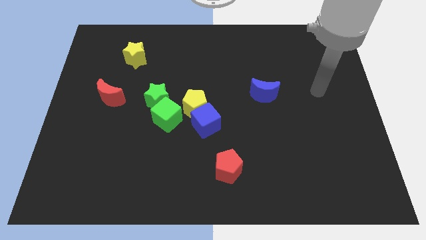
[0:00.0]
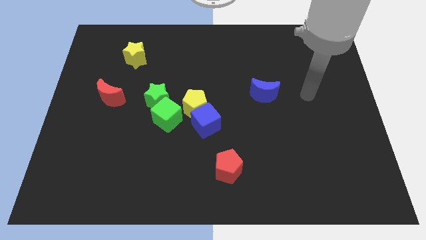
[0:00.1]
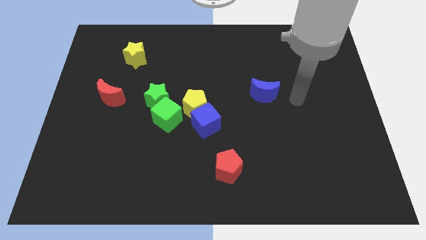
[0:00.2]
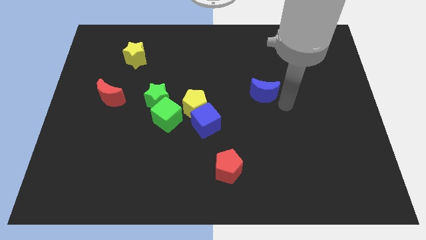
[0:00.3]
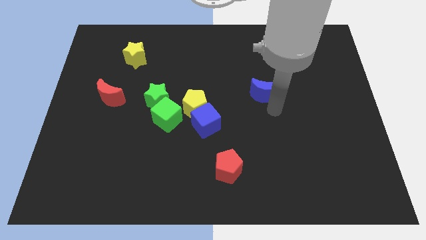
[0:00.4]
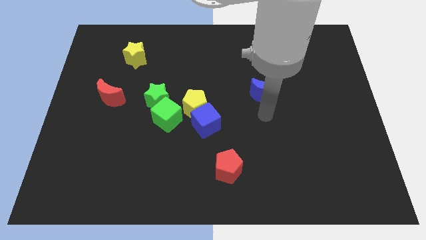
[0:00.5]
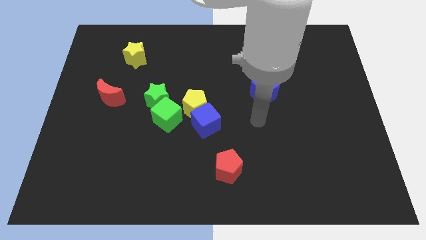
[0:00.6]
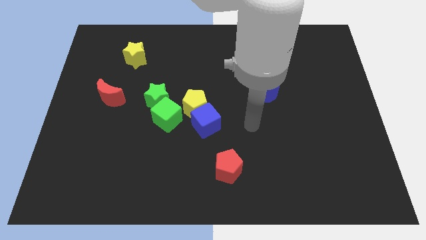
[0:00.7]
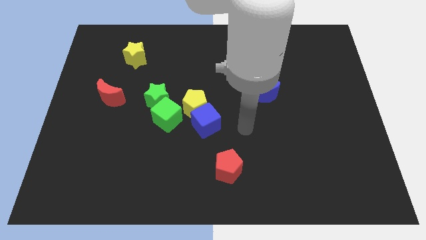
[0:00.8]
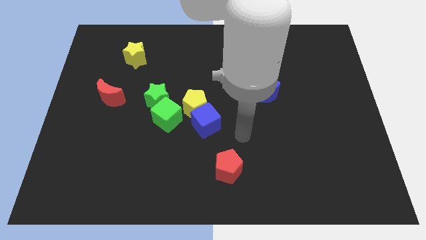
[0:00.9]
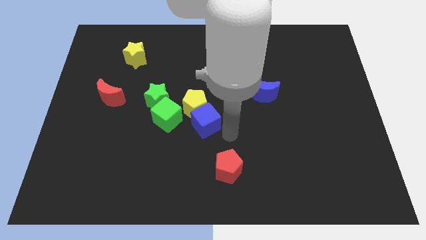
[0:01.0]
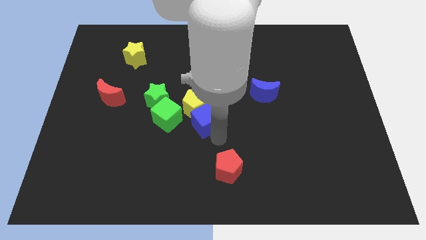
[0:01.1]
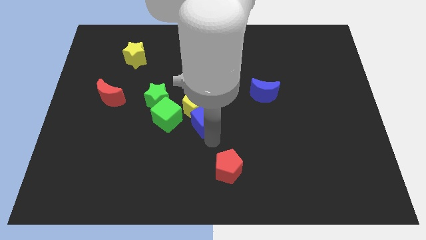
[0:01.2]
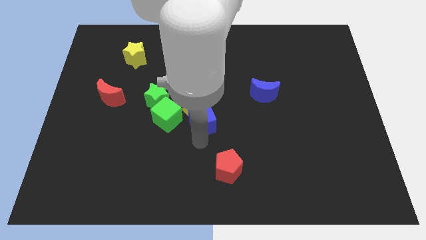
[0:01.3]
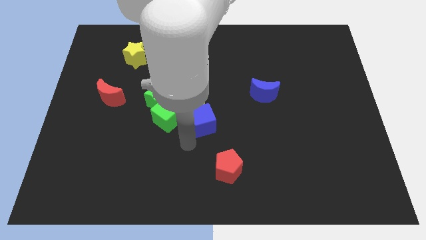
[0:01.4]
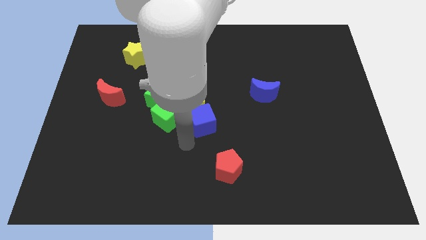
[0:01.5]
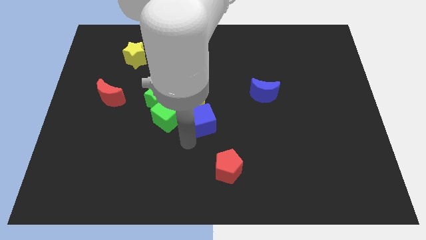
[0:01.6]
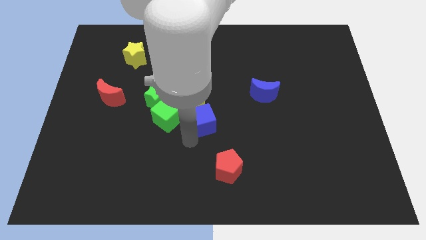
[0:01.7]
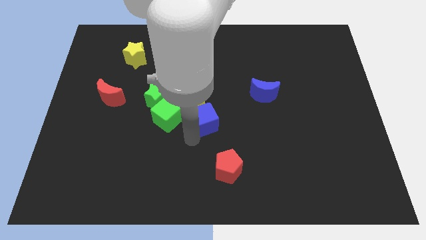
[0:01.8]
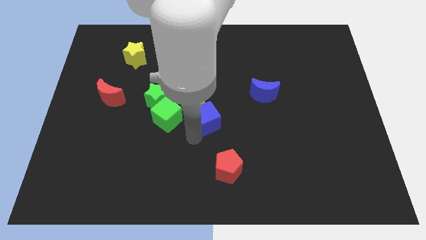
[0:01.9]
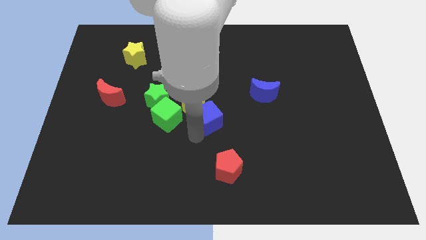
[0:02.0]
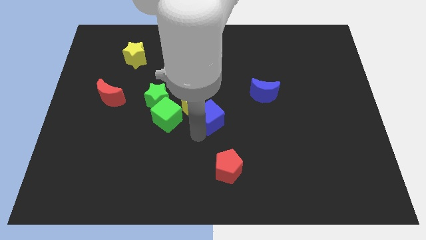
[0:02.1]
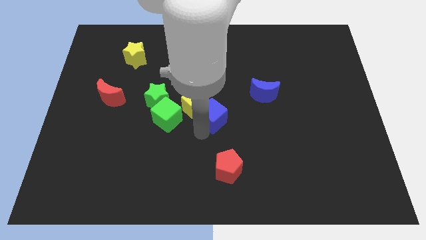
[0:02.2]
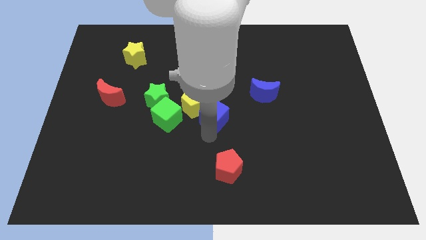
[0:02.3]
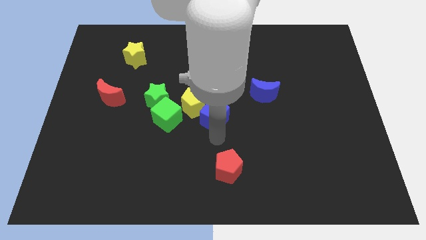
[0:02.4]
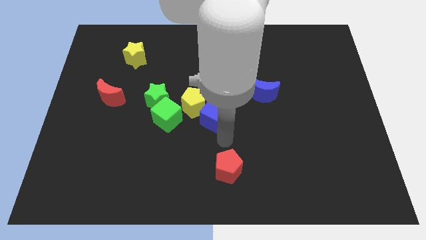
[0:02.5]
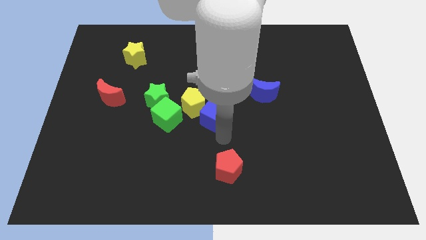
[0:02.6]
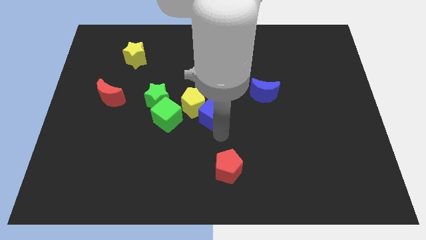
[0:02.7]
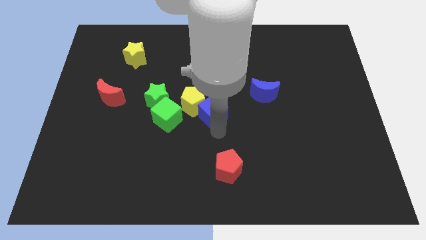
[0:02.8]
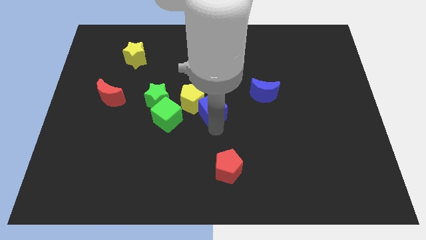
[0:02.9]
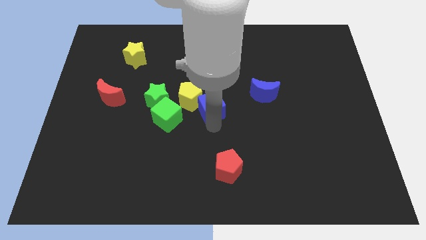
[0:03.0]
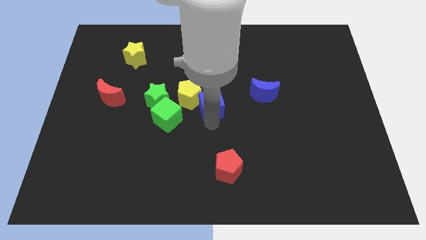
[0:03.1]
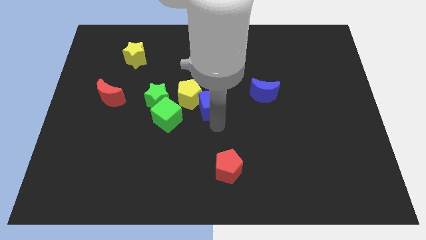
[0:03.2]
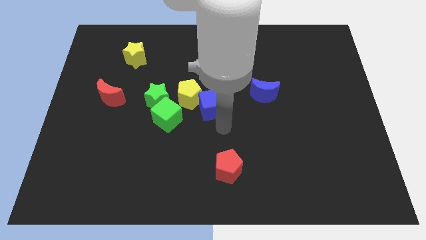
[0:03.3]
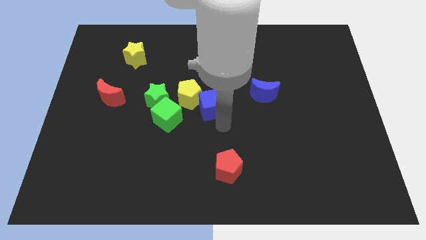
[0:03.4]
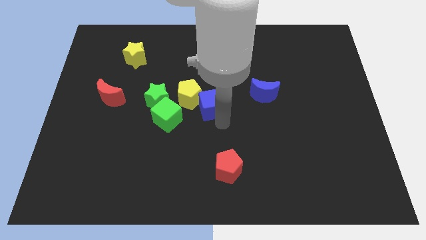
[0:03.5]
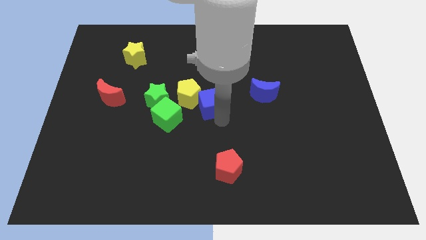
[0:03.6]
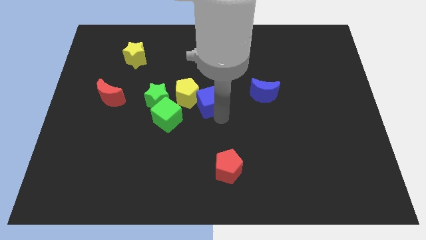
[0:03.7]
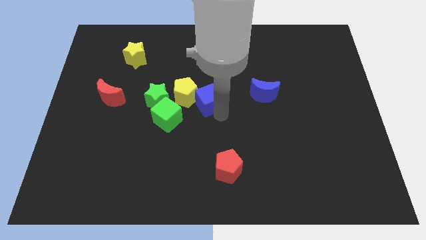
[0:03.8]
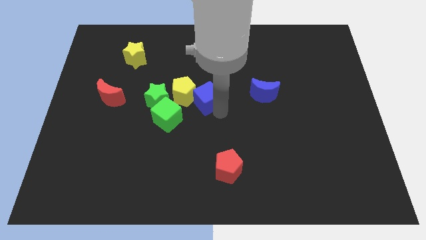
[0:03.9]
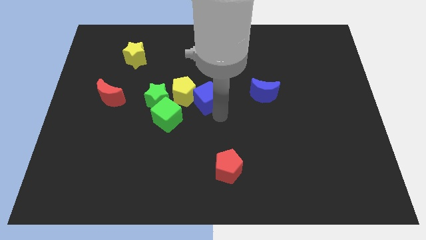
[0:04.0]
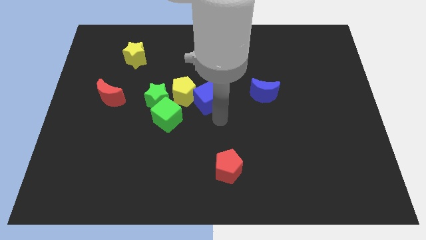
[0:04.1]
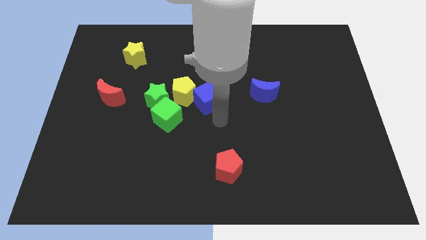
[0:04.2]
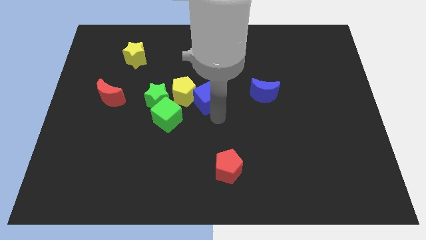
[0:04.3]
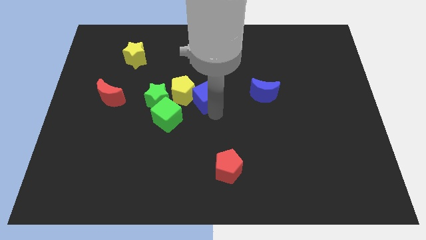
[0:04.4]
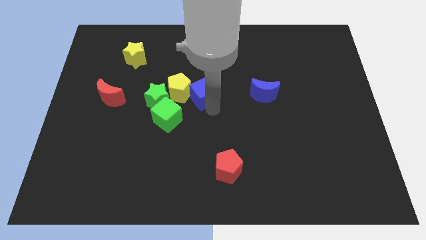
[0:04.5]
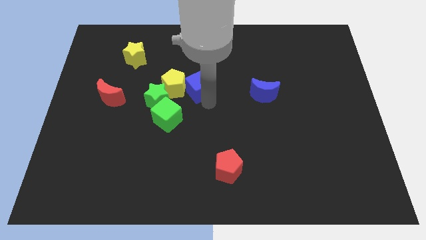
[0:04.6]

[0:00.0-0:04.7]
move the blue cube diagonally up and left slightly

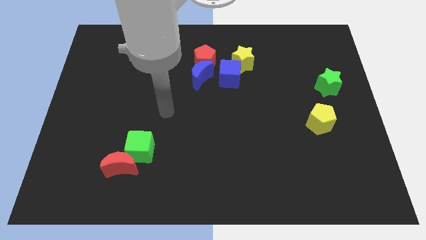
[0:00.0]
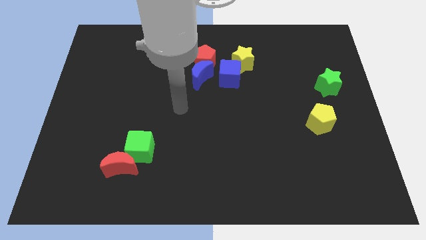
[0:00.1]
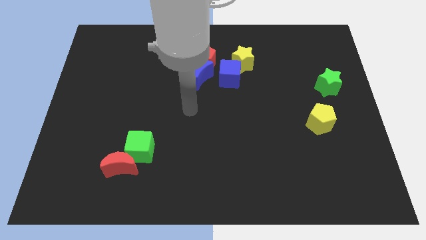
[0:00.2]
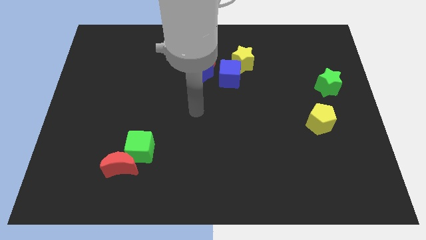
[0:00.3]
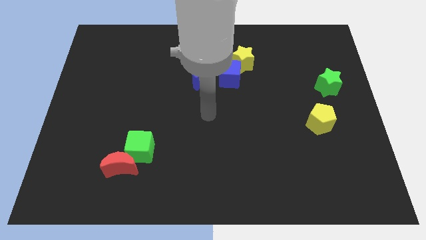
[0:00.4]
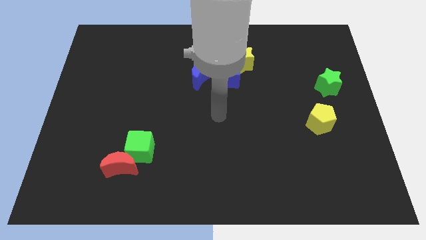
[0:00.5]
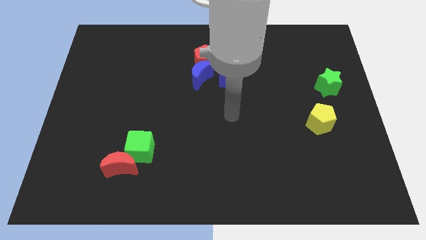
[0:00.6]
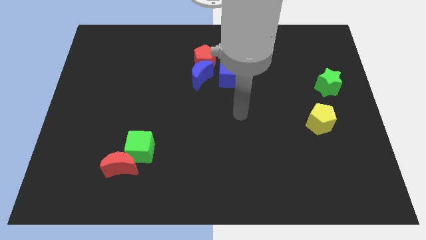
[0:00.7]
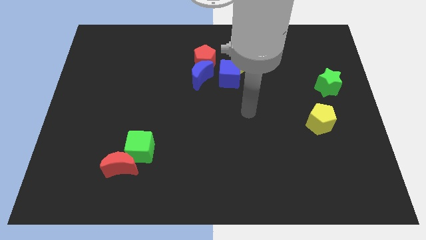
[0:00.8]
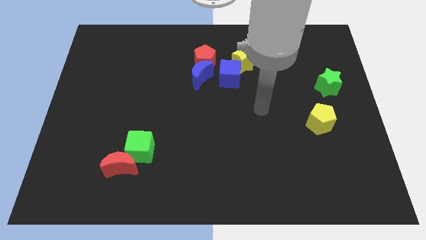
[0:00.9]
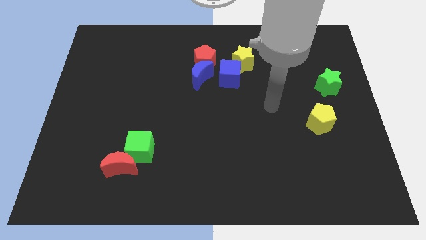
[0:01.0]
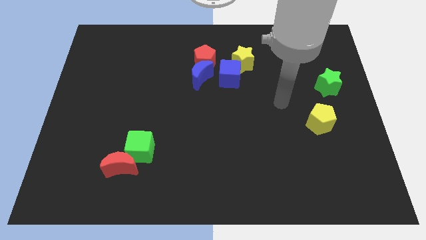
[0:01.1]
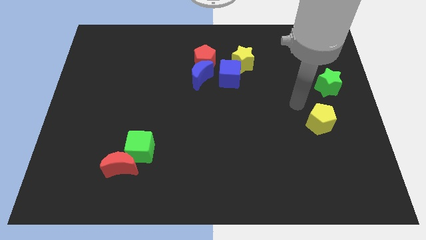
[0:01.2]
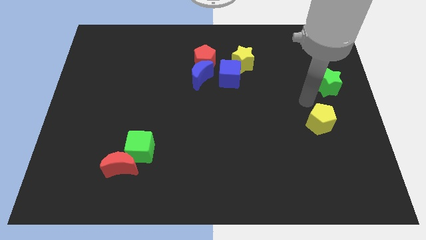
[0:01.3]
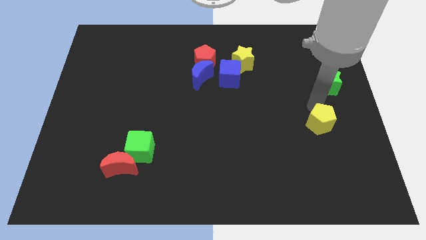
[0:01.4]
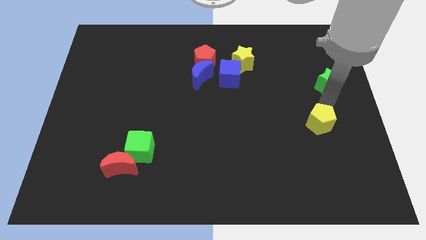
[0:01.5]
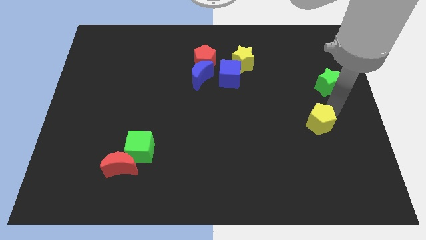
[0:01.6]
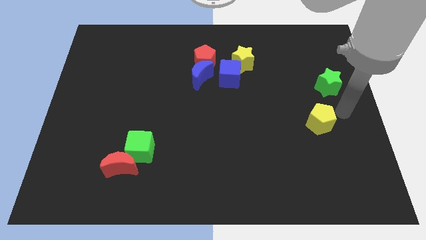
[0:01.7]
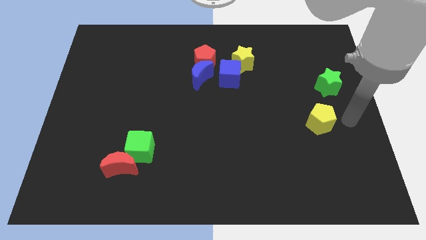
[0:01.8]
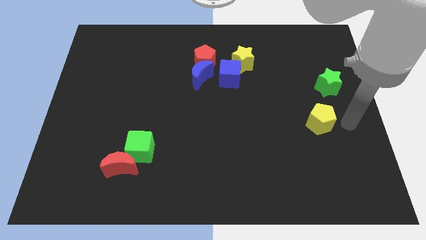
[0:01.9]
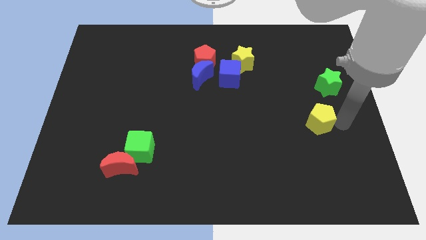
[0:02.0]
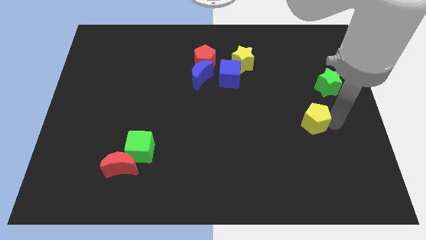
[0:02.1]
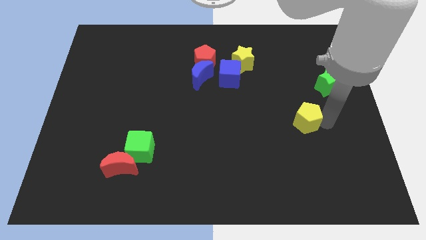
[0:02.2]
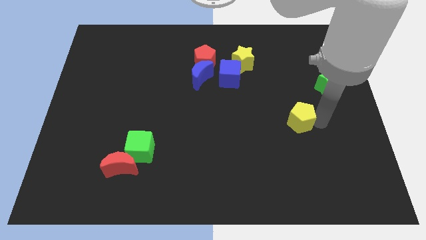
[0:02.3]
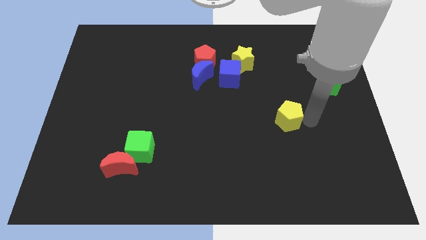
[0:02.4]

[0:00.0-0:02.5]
slightly slide the yellow pentagon left

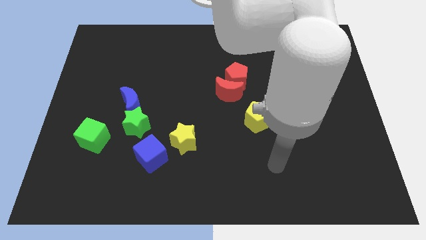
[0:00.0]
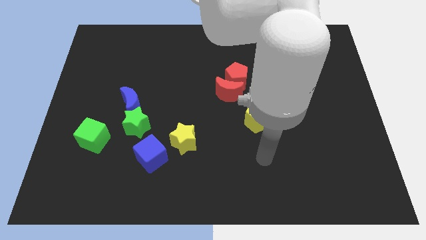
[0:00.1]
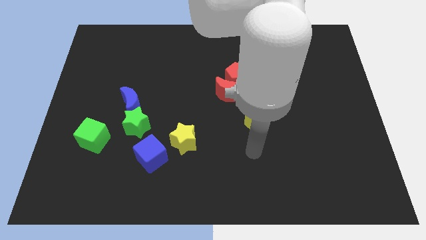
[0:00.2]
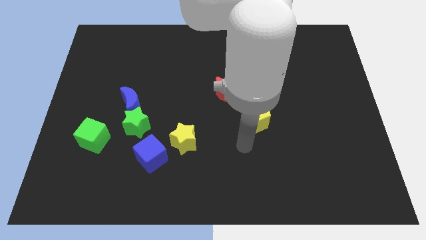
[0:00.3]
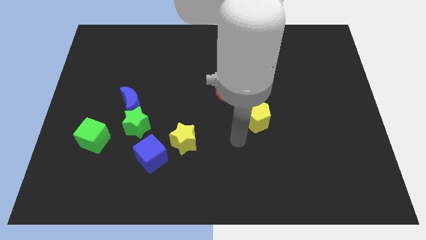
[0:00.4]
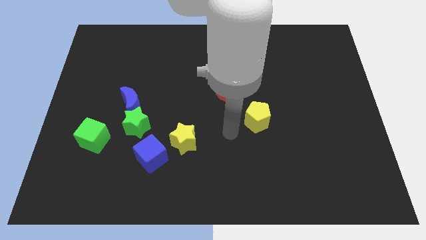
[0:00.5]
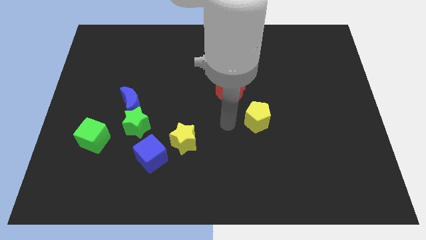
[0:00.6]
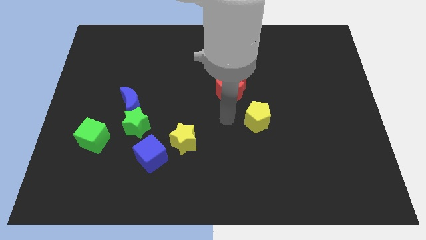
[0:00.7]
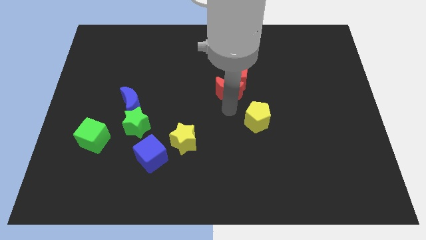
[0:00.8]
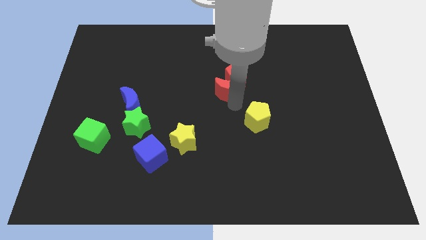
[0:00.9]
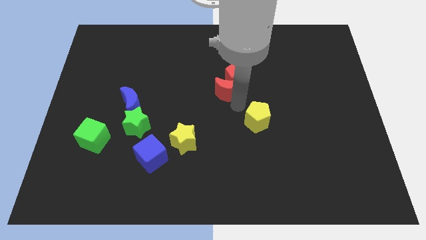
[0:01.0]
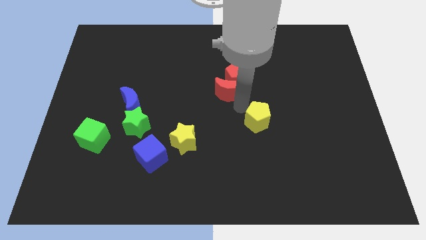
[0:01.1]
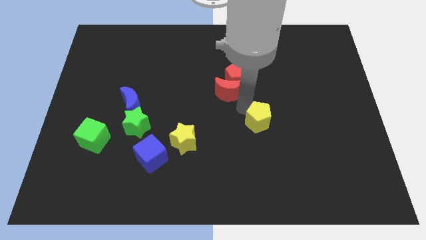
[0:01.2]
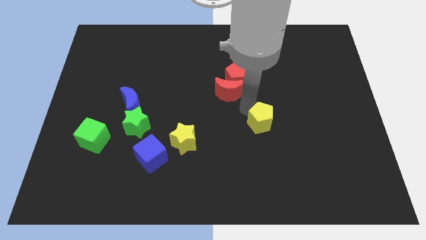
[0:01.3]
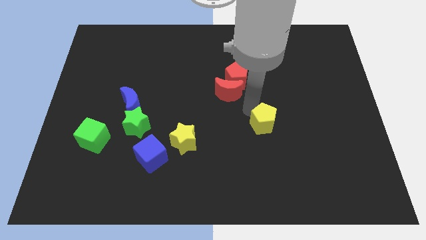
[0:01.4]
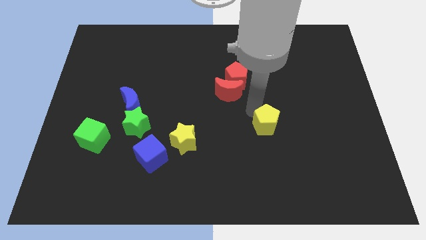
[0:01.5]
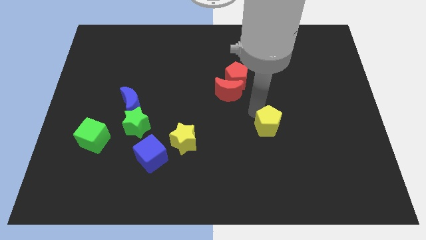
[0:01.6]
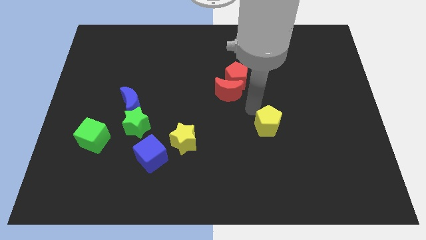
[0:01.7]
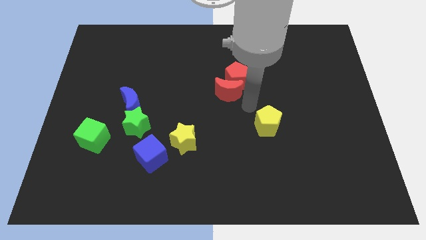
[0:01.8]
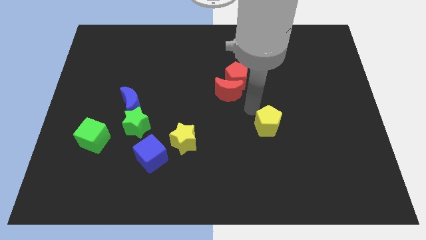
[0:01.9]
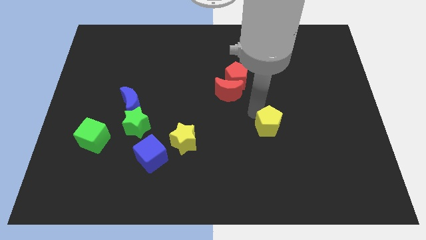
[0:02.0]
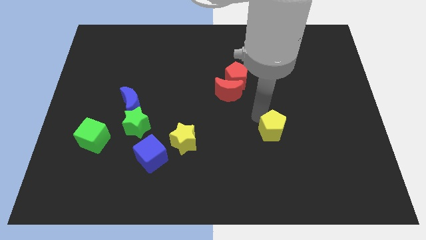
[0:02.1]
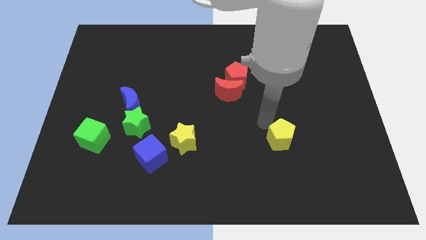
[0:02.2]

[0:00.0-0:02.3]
slide the yellow pentagon somewhat downwards and then to the right
